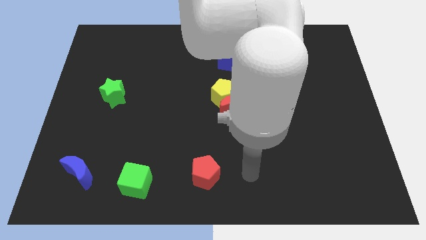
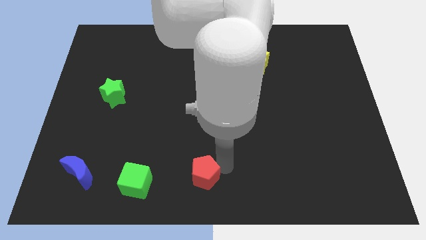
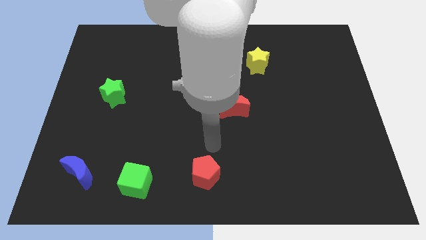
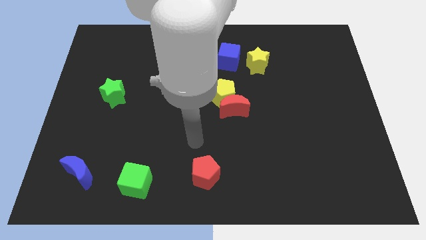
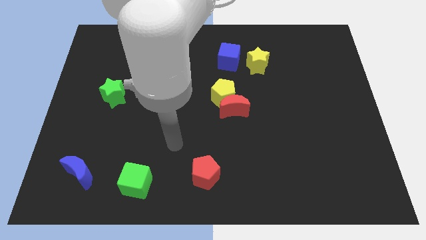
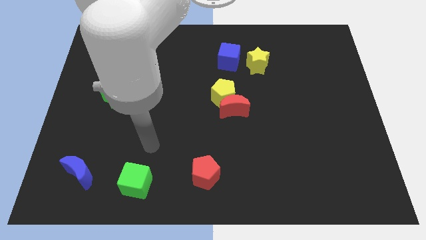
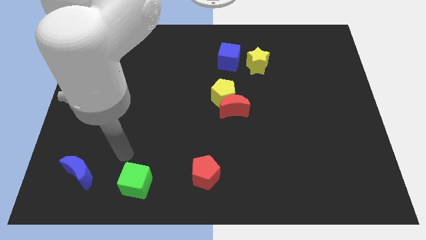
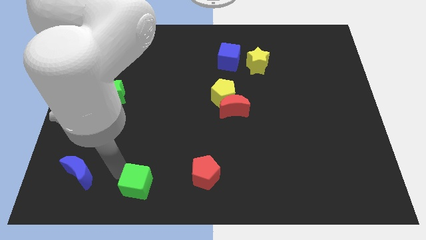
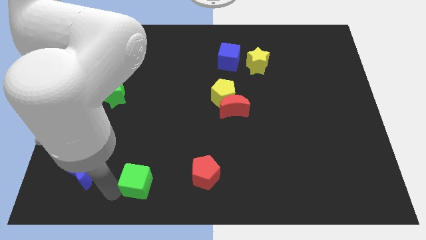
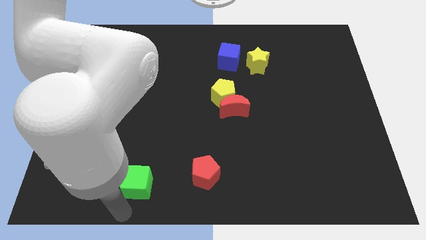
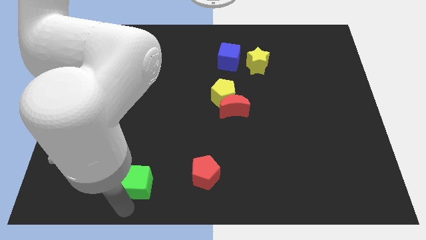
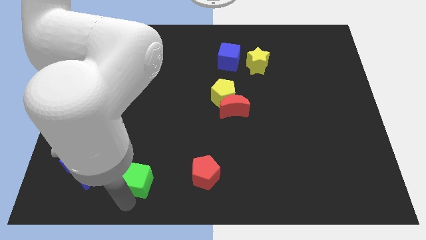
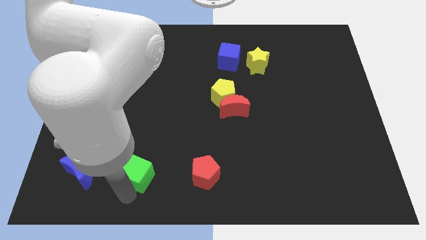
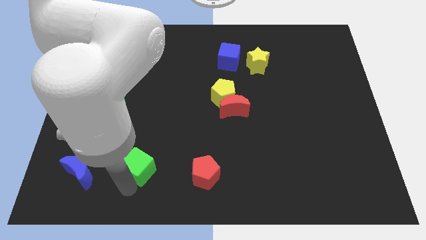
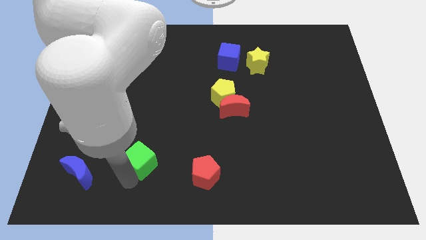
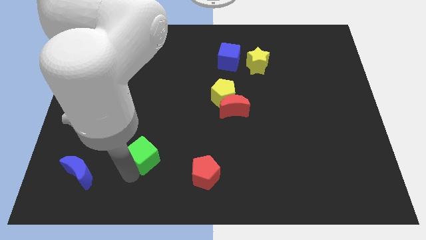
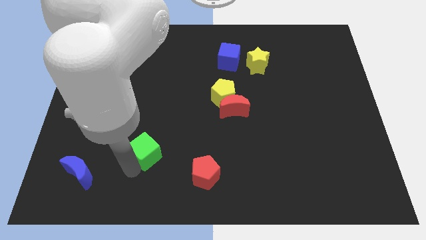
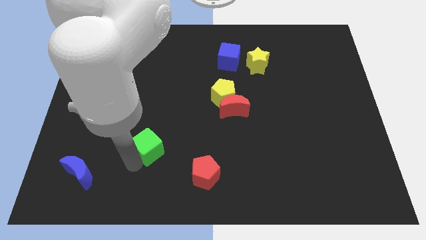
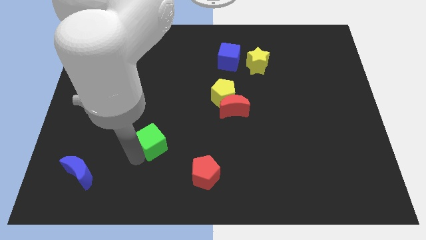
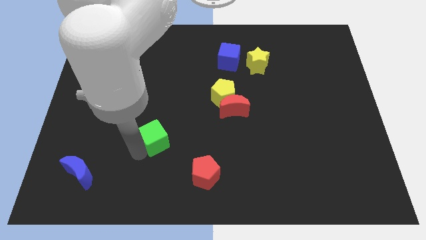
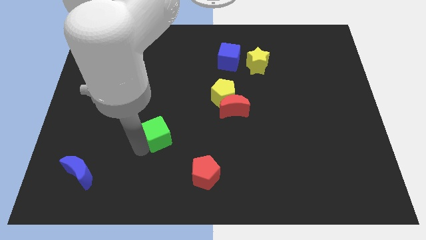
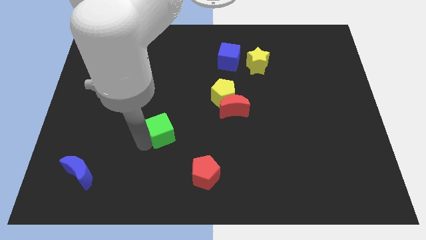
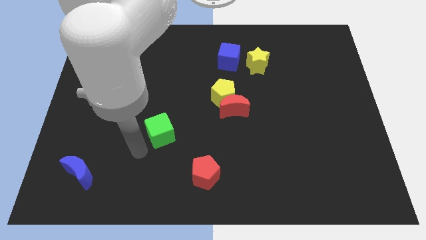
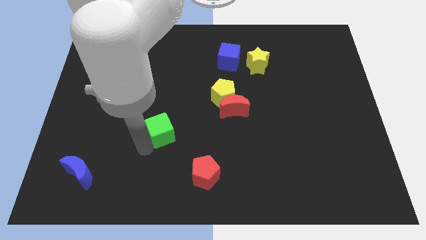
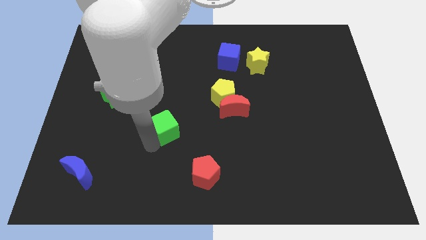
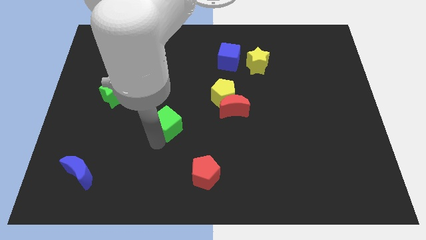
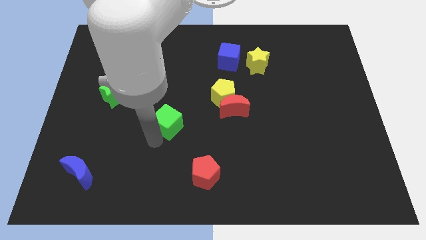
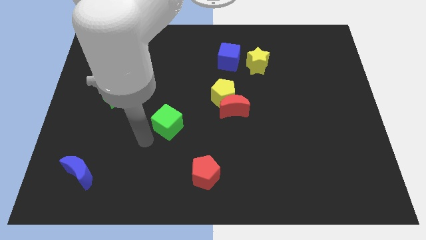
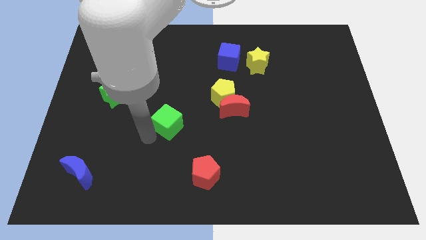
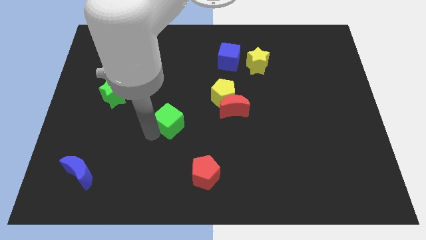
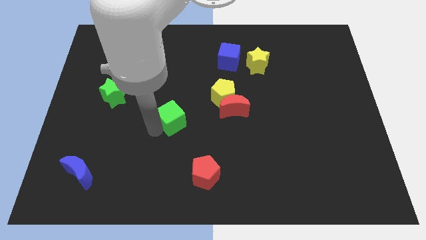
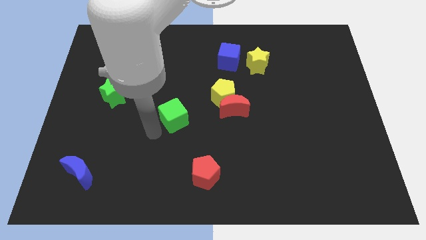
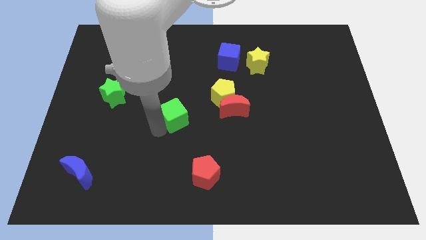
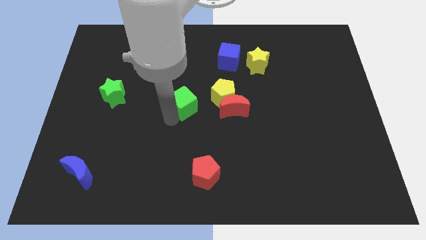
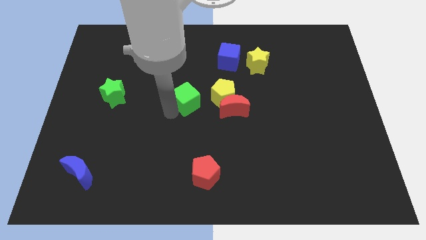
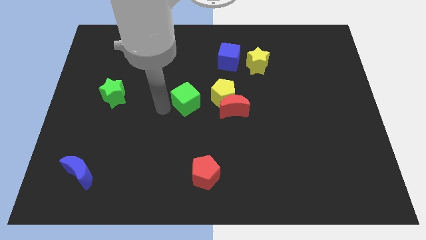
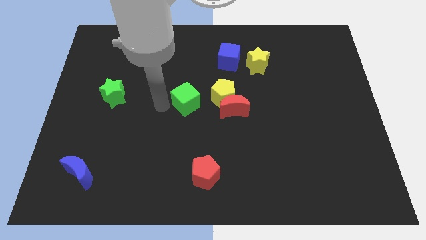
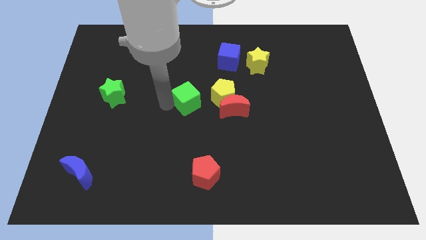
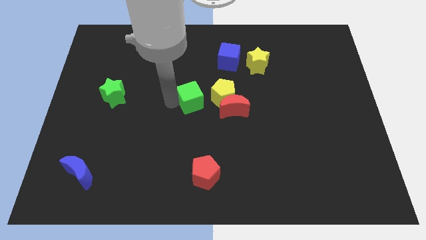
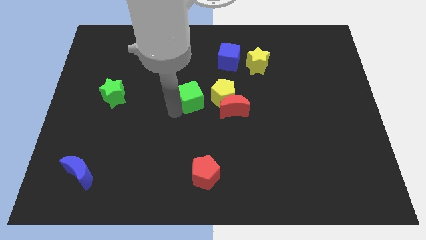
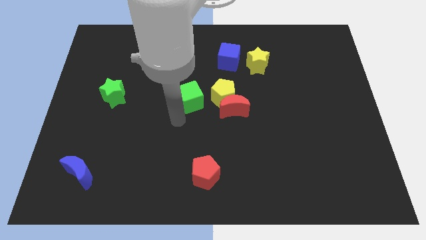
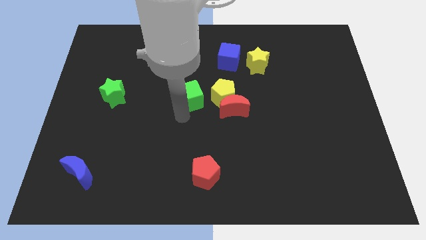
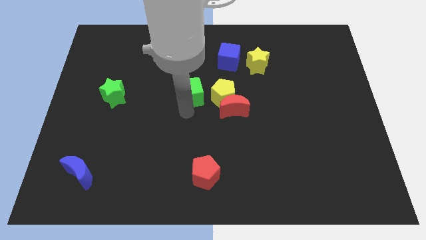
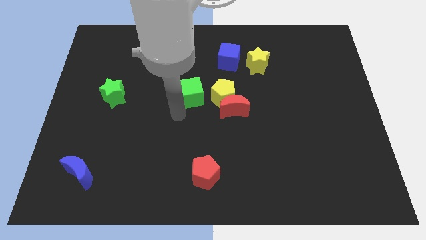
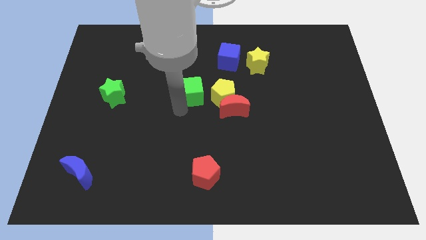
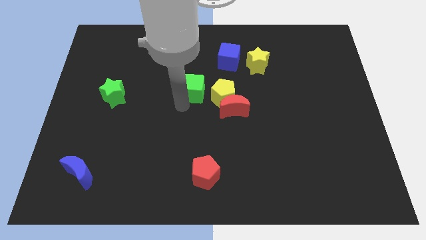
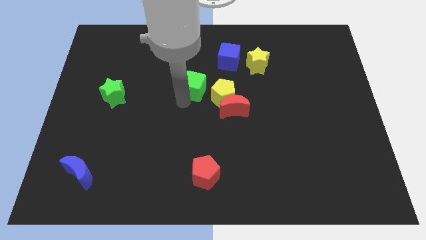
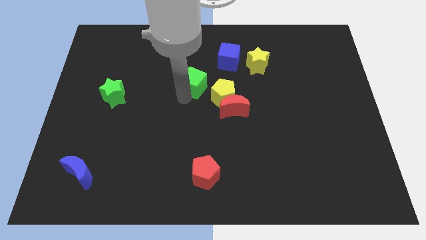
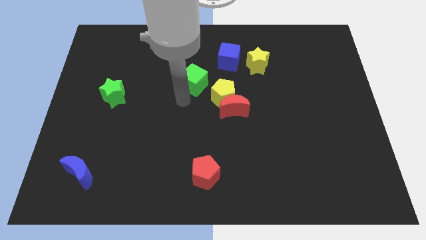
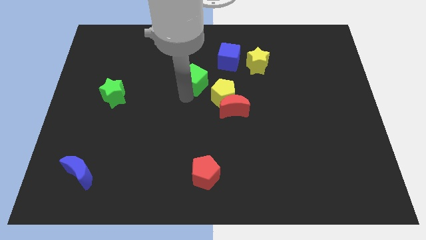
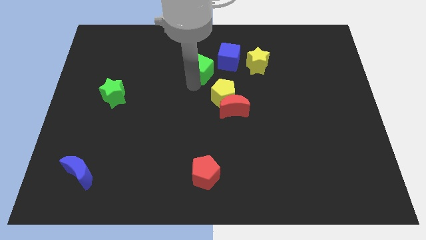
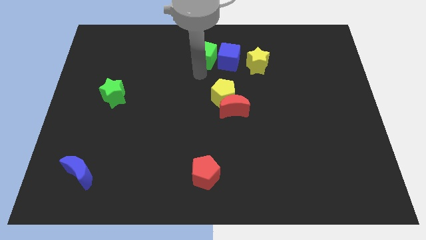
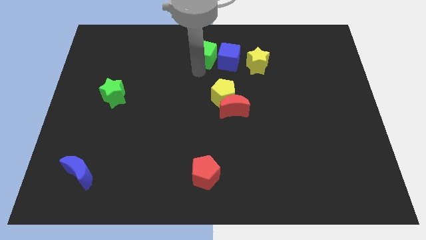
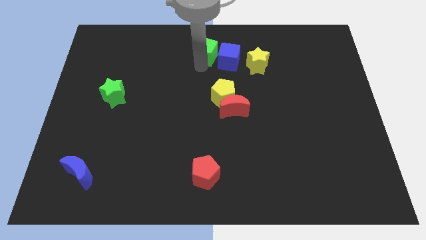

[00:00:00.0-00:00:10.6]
slide the green cube to the top side
